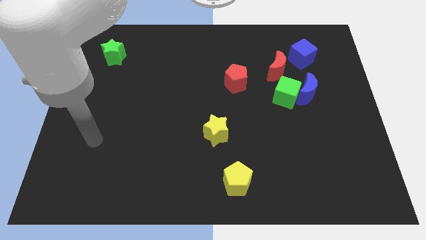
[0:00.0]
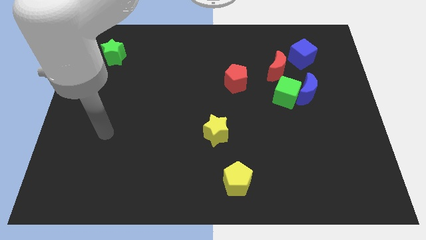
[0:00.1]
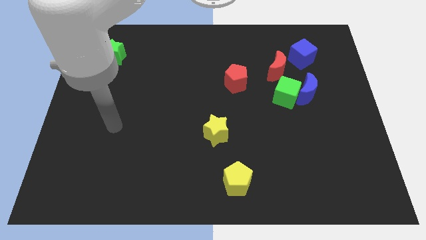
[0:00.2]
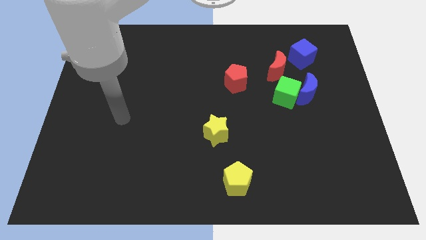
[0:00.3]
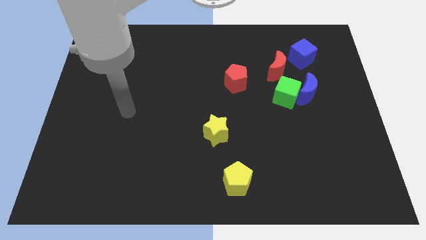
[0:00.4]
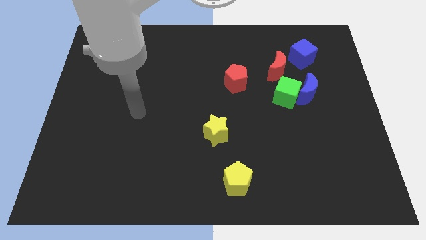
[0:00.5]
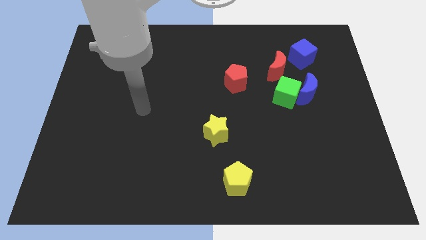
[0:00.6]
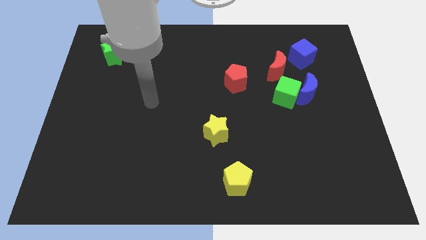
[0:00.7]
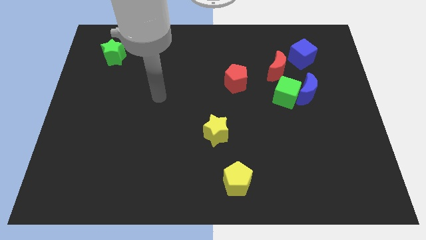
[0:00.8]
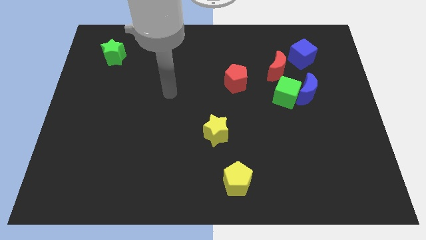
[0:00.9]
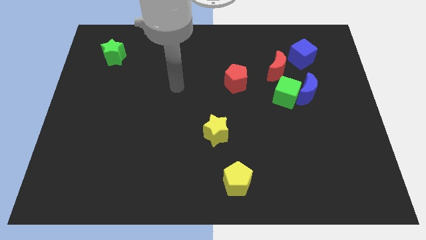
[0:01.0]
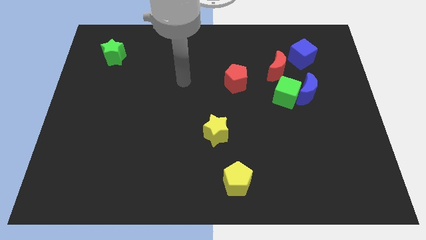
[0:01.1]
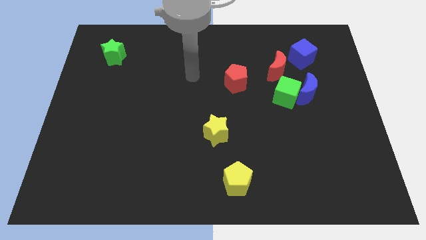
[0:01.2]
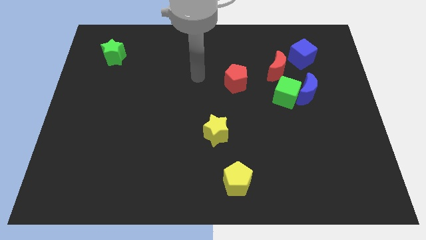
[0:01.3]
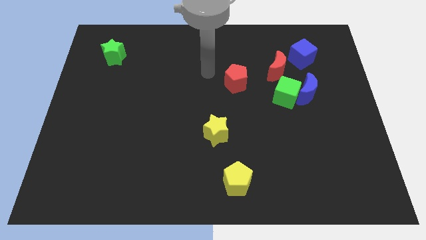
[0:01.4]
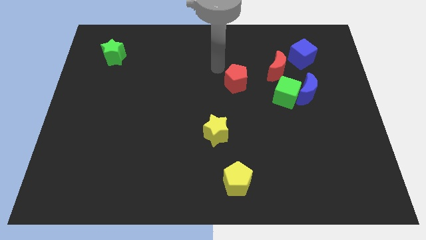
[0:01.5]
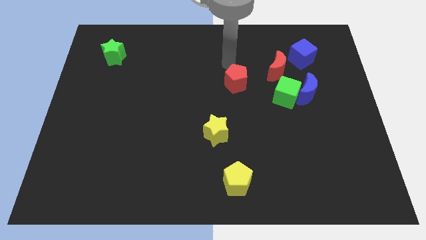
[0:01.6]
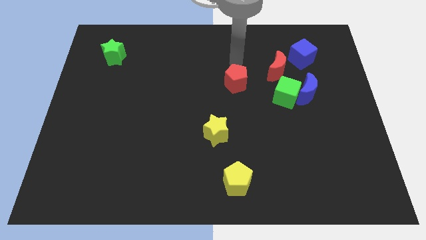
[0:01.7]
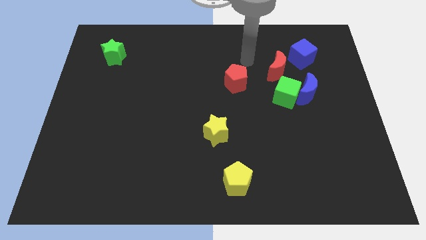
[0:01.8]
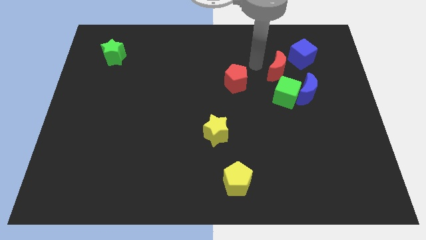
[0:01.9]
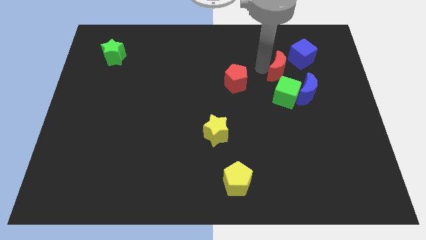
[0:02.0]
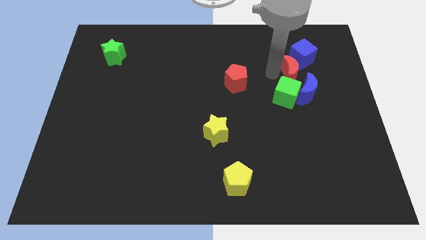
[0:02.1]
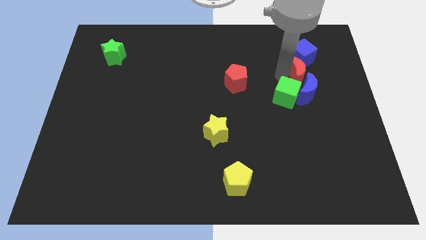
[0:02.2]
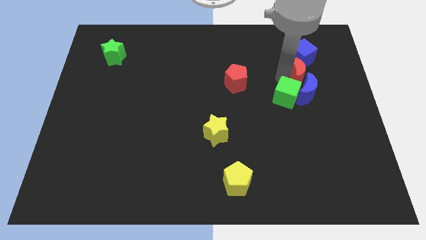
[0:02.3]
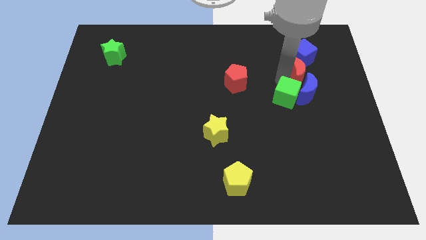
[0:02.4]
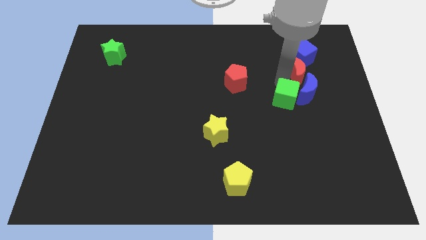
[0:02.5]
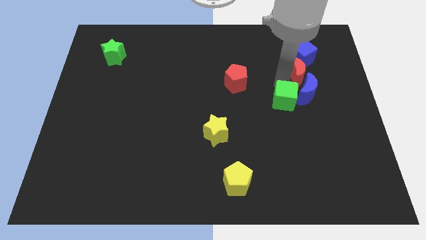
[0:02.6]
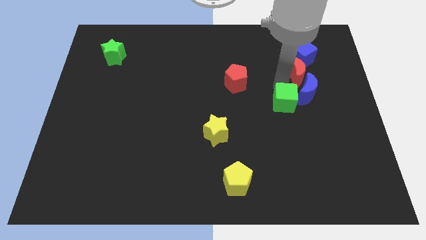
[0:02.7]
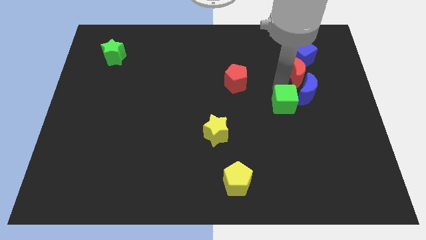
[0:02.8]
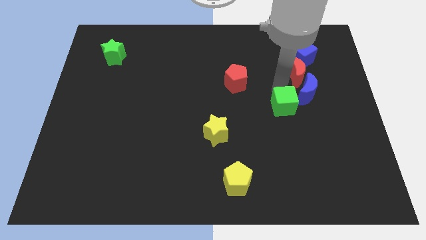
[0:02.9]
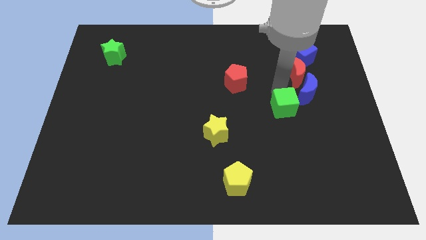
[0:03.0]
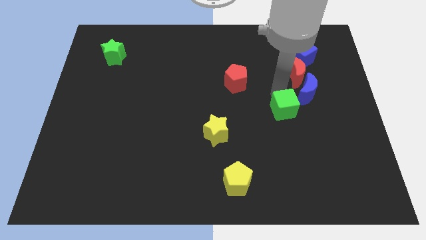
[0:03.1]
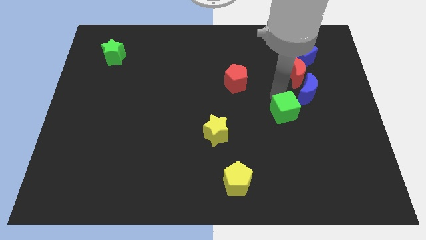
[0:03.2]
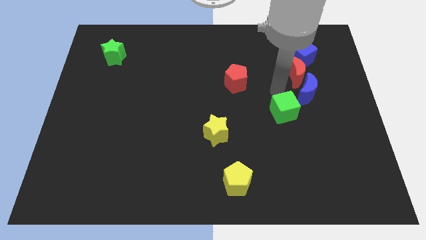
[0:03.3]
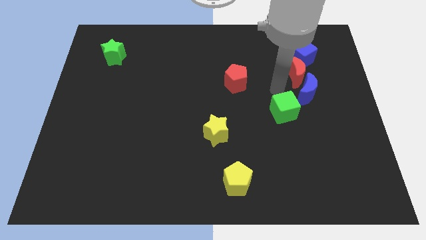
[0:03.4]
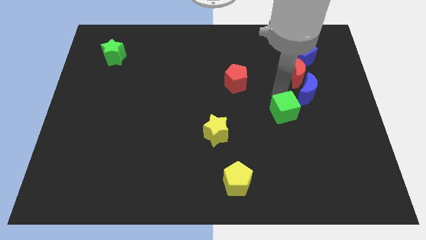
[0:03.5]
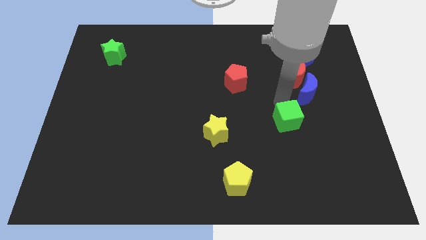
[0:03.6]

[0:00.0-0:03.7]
slide the green cube slightly down

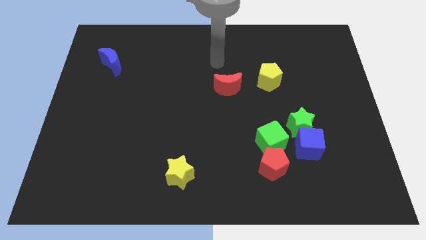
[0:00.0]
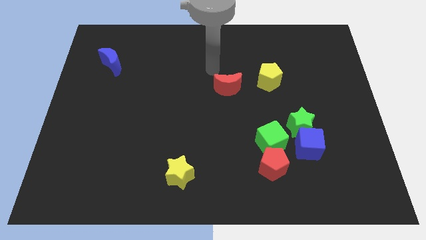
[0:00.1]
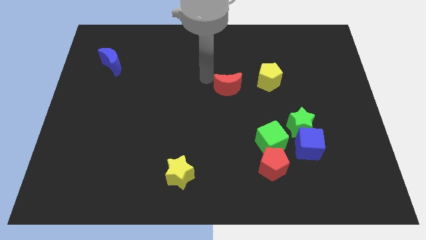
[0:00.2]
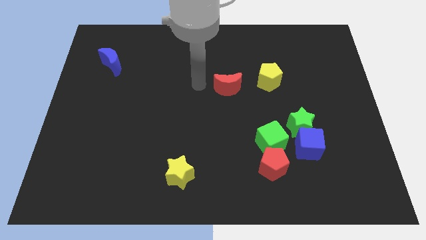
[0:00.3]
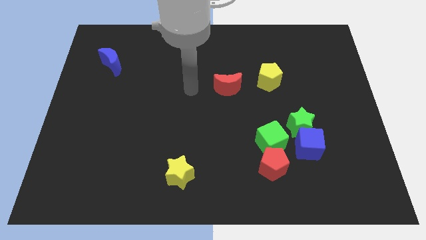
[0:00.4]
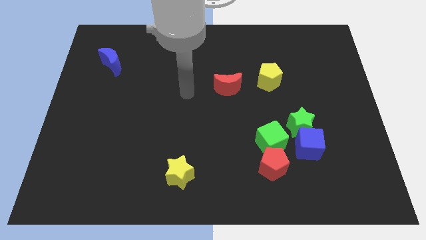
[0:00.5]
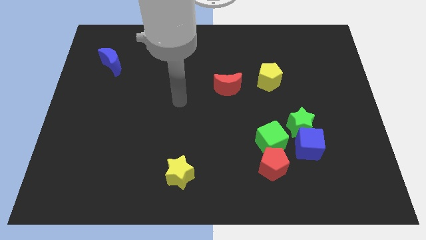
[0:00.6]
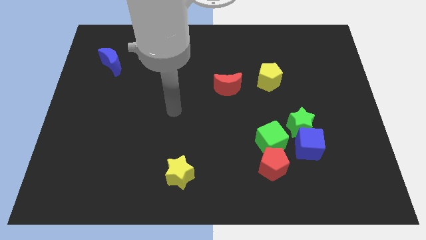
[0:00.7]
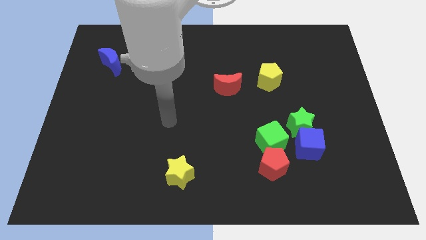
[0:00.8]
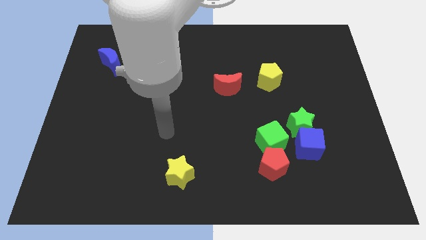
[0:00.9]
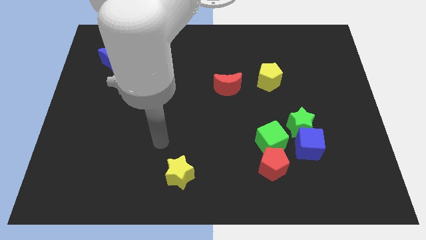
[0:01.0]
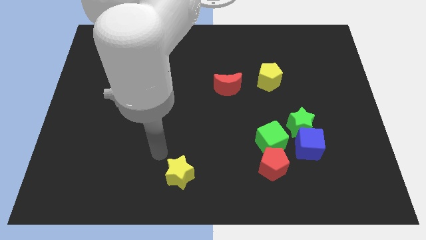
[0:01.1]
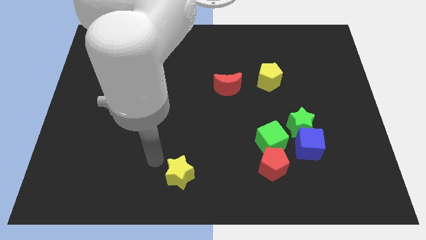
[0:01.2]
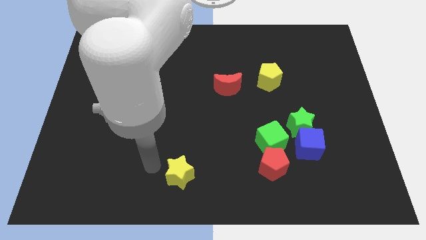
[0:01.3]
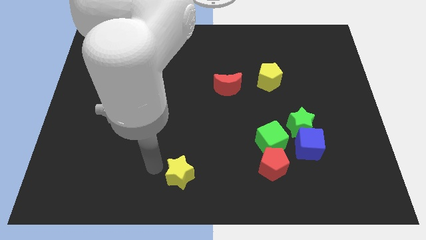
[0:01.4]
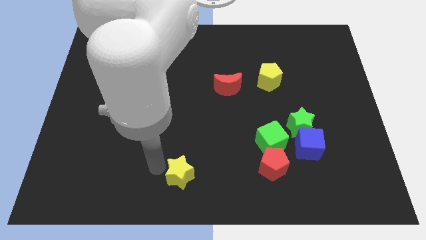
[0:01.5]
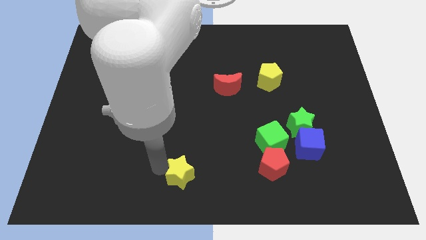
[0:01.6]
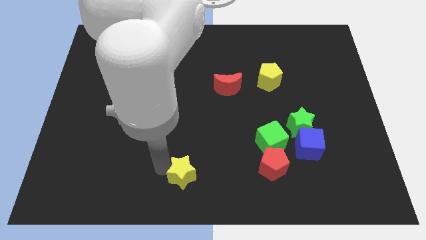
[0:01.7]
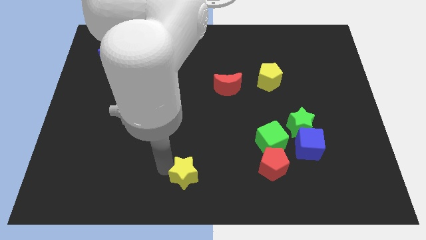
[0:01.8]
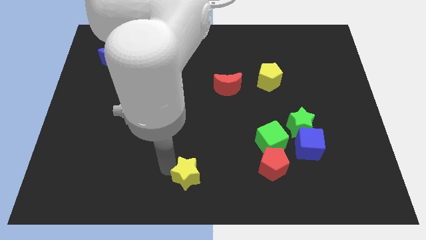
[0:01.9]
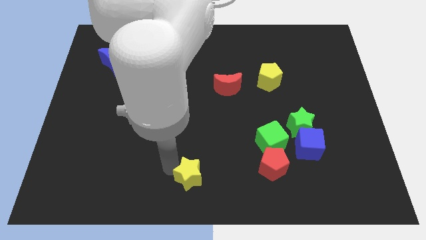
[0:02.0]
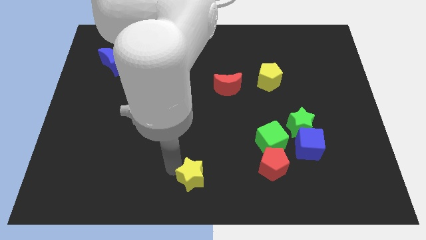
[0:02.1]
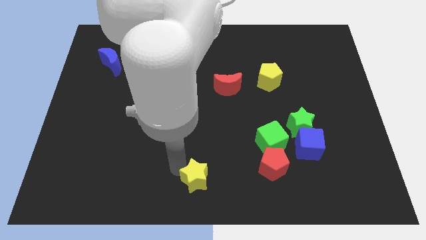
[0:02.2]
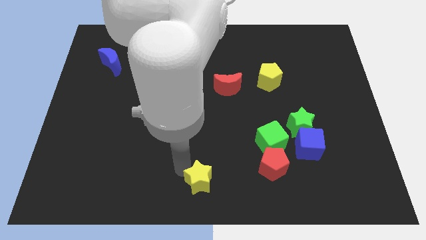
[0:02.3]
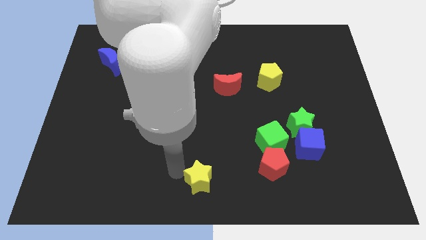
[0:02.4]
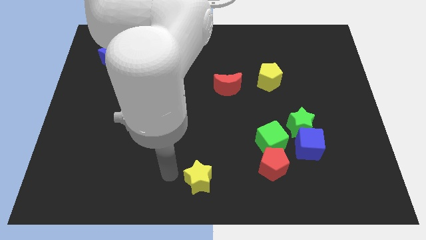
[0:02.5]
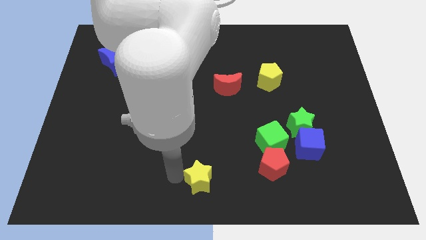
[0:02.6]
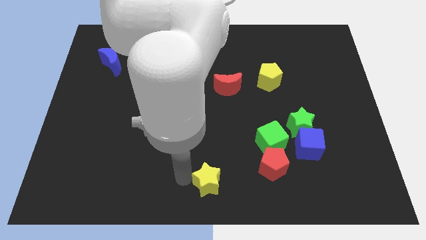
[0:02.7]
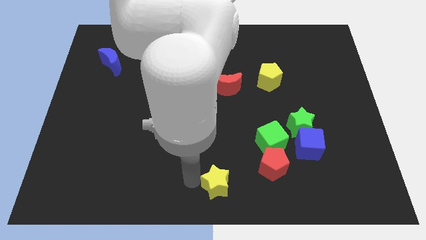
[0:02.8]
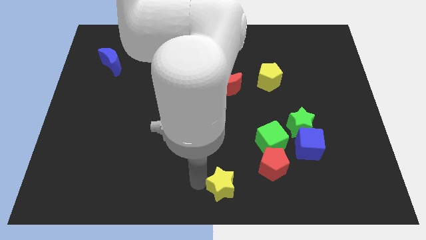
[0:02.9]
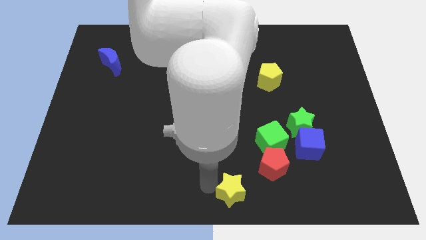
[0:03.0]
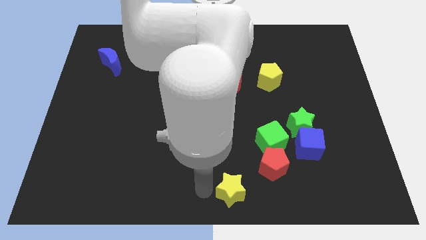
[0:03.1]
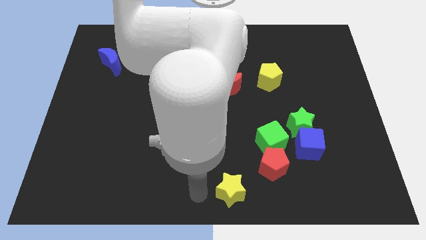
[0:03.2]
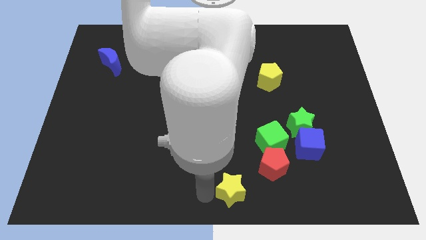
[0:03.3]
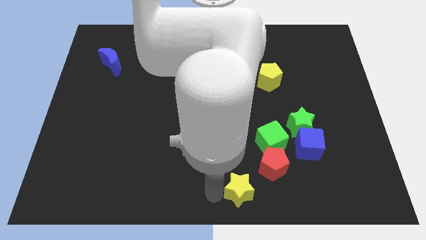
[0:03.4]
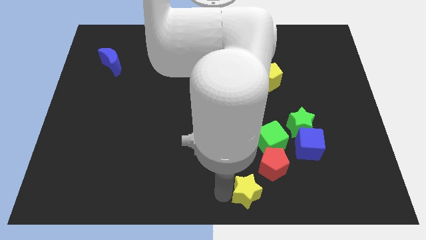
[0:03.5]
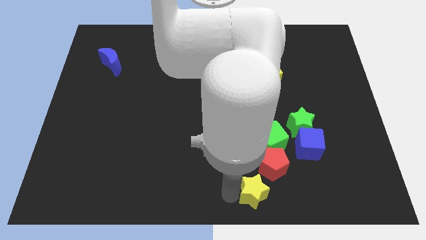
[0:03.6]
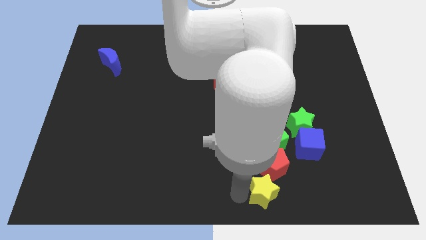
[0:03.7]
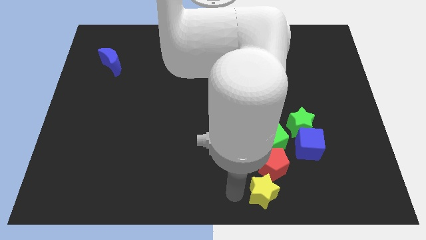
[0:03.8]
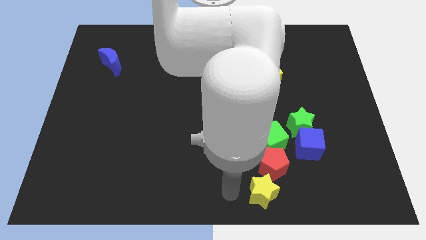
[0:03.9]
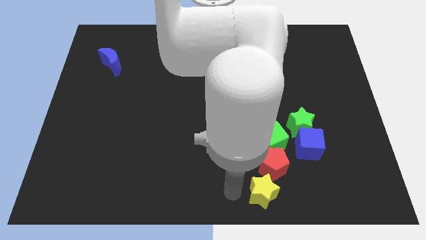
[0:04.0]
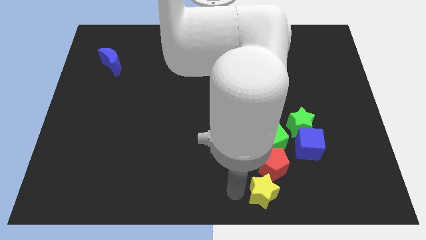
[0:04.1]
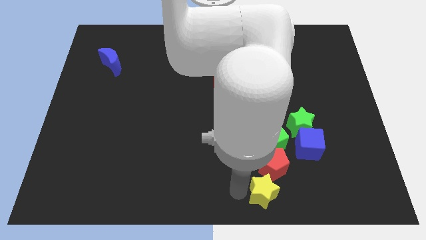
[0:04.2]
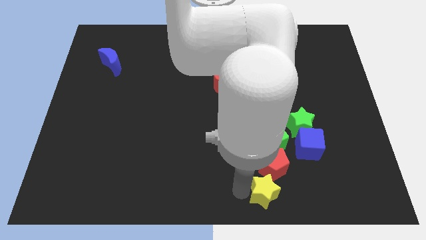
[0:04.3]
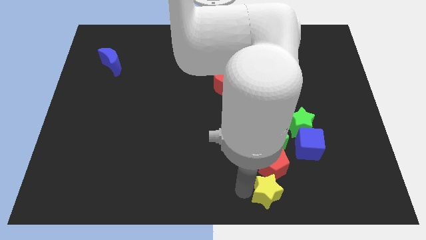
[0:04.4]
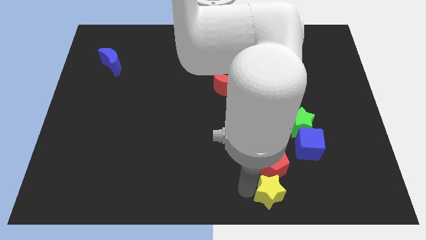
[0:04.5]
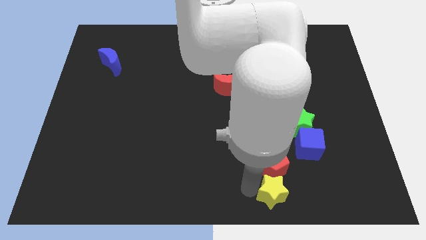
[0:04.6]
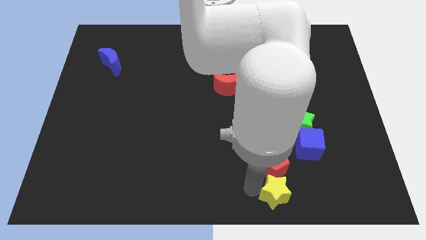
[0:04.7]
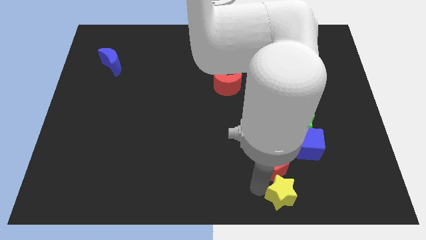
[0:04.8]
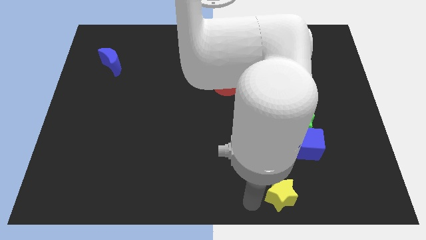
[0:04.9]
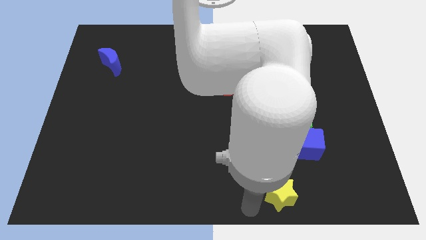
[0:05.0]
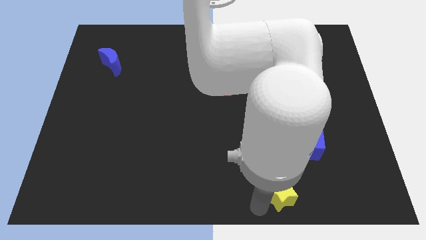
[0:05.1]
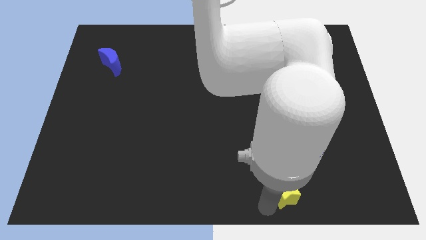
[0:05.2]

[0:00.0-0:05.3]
slide the yellow star right
